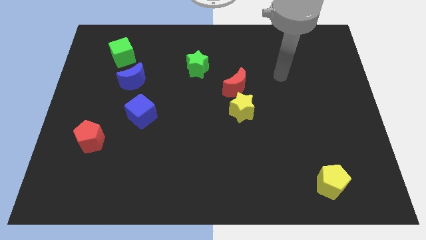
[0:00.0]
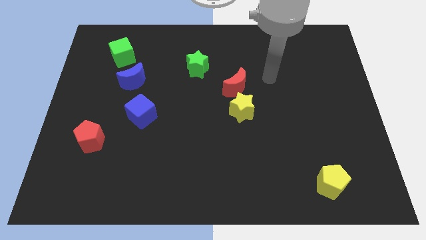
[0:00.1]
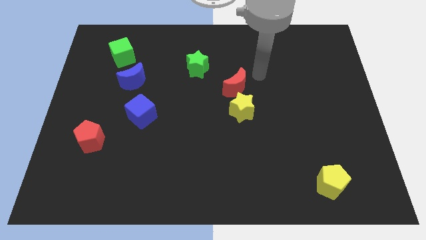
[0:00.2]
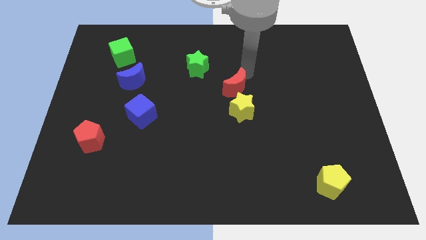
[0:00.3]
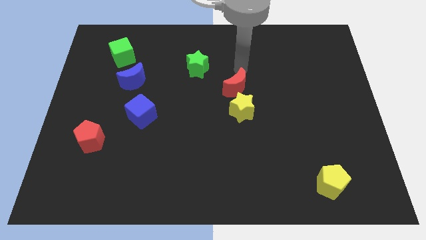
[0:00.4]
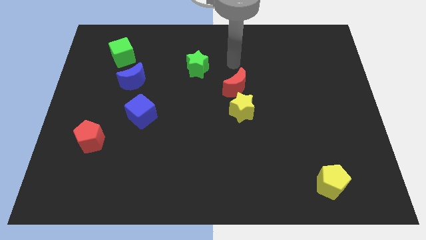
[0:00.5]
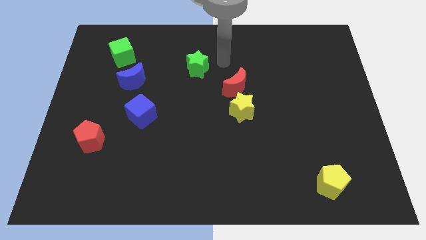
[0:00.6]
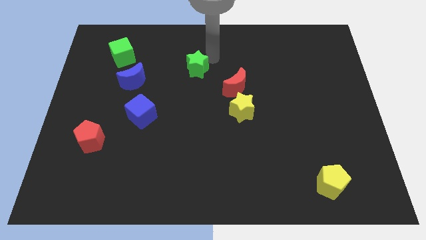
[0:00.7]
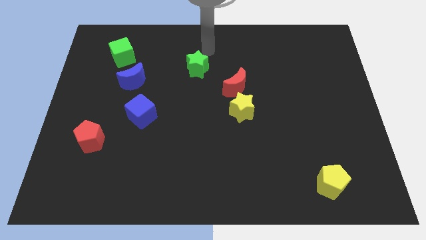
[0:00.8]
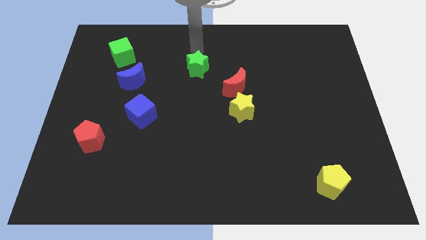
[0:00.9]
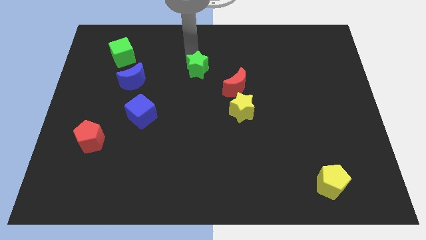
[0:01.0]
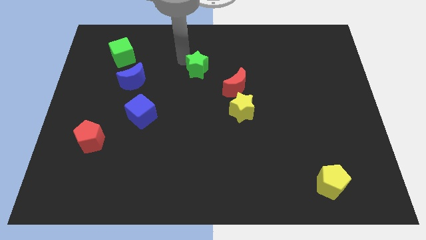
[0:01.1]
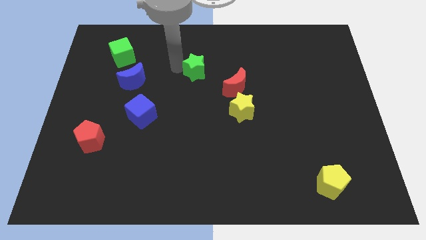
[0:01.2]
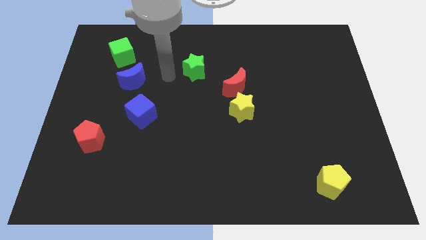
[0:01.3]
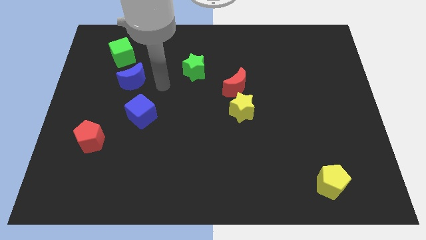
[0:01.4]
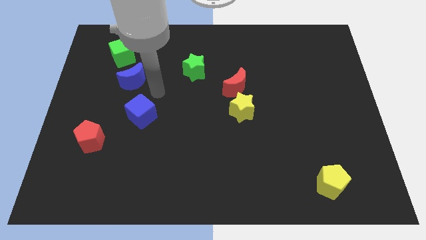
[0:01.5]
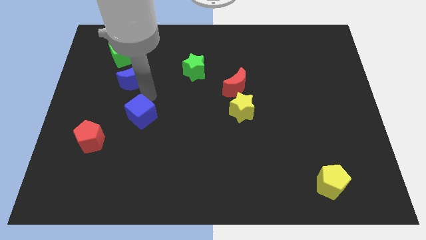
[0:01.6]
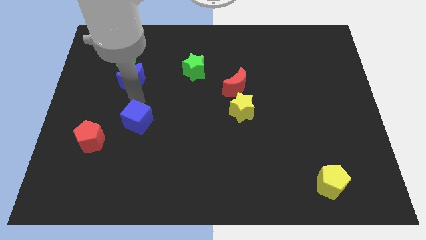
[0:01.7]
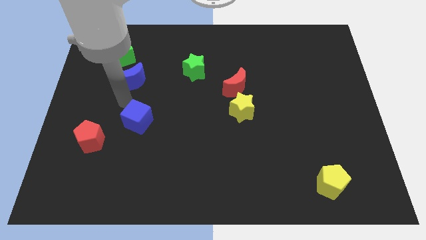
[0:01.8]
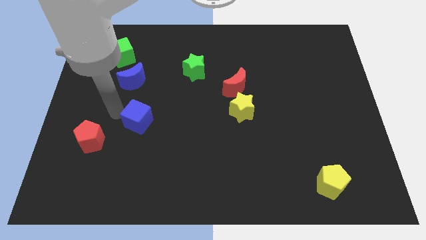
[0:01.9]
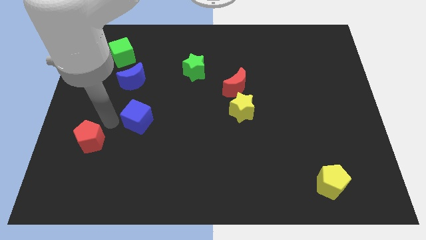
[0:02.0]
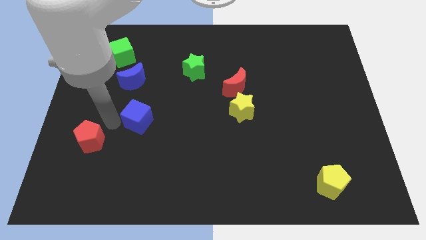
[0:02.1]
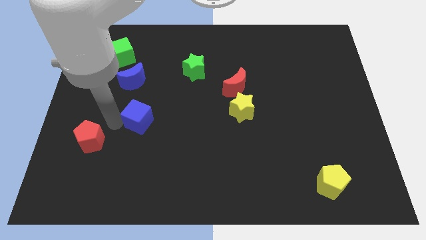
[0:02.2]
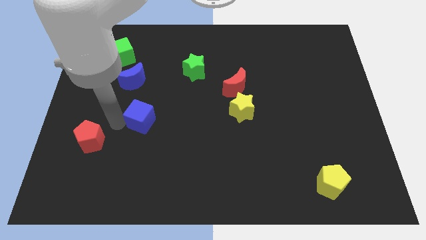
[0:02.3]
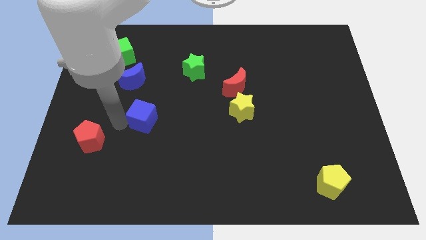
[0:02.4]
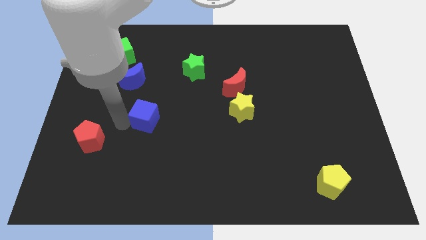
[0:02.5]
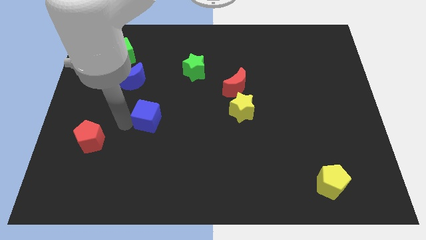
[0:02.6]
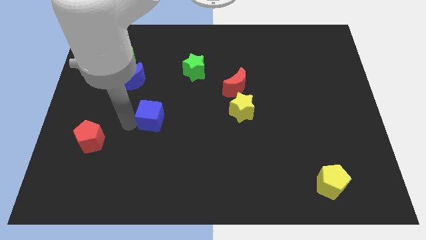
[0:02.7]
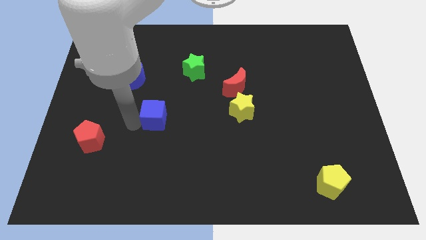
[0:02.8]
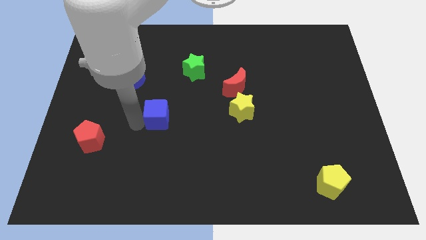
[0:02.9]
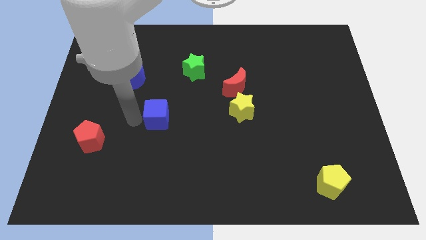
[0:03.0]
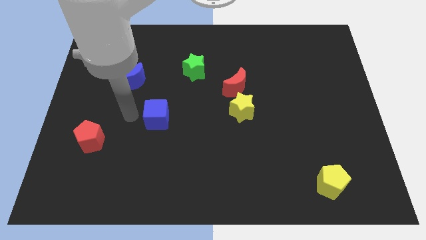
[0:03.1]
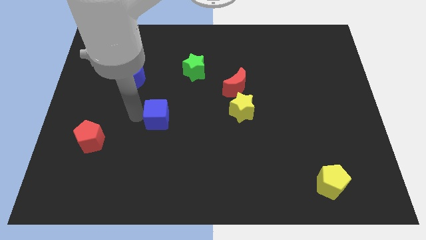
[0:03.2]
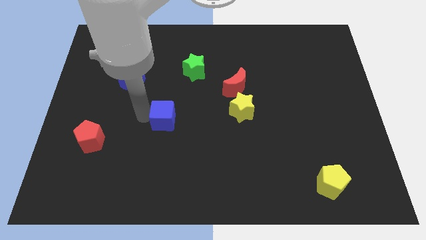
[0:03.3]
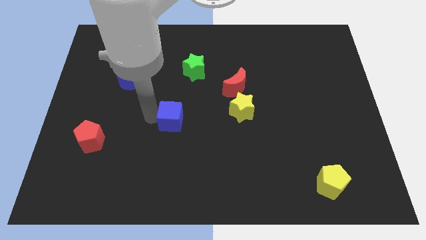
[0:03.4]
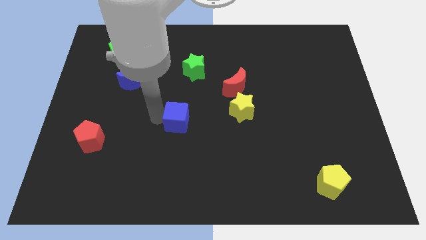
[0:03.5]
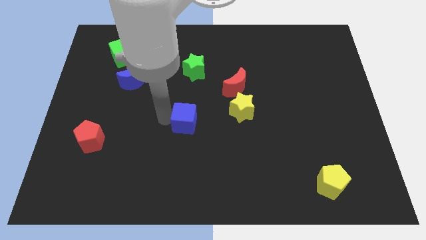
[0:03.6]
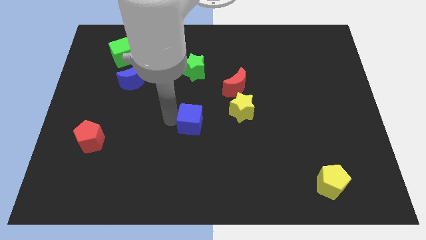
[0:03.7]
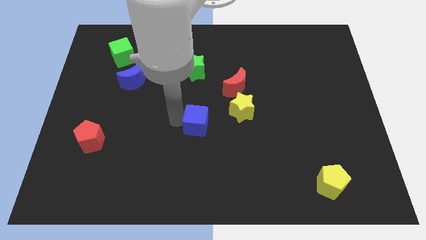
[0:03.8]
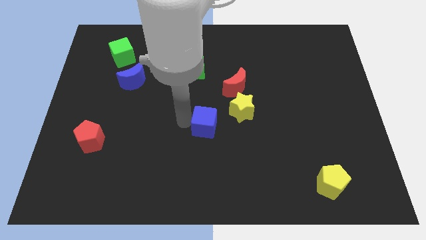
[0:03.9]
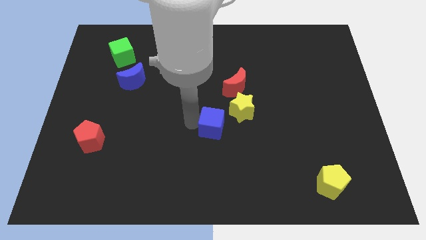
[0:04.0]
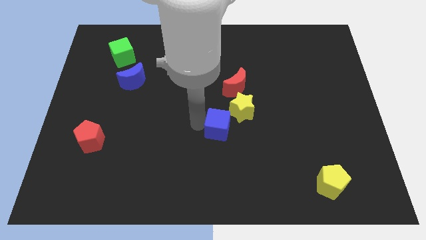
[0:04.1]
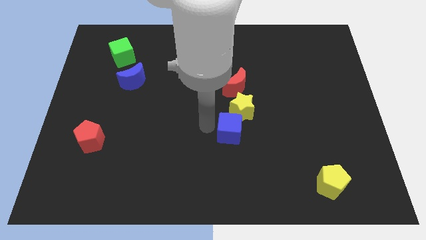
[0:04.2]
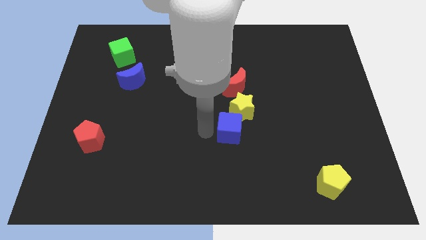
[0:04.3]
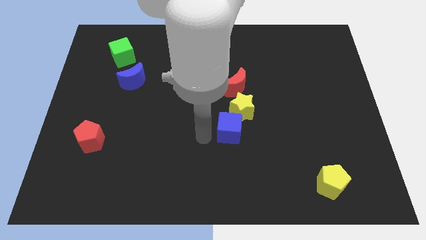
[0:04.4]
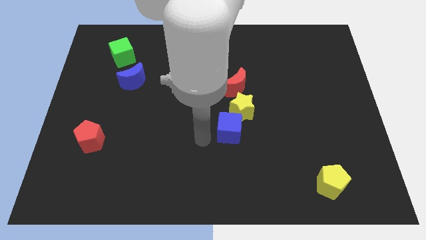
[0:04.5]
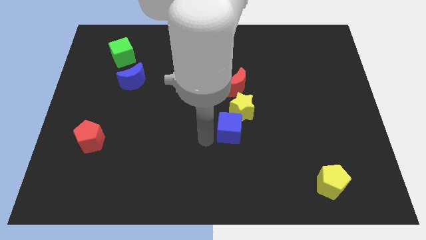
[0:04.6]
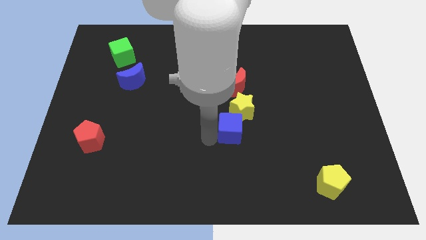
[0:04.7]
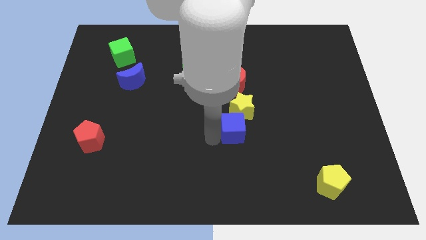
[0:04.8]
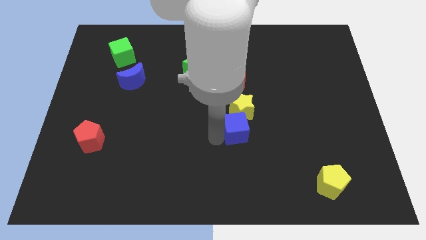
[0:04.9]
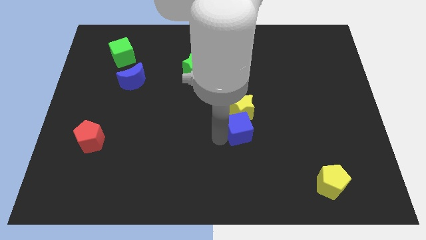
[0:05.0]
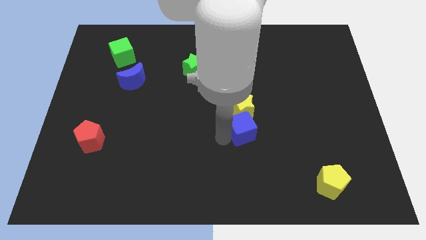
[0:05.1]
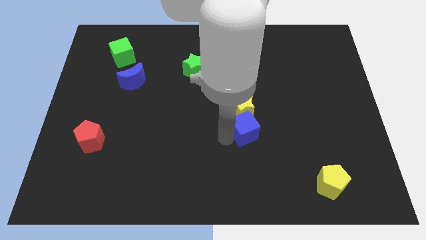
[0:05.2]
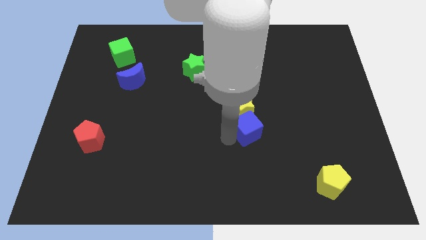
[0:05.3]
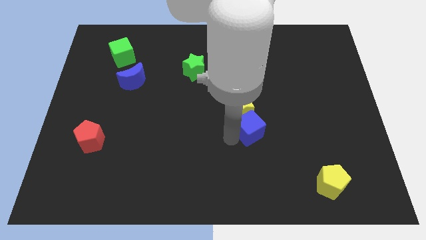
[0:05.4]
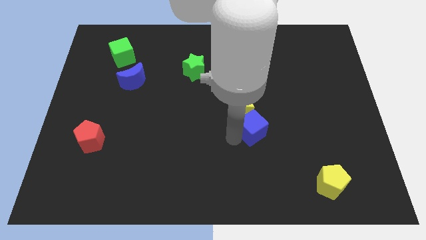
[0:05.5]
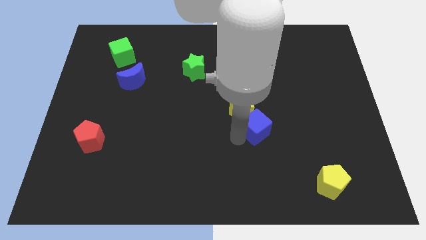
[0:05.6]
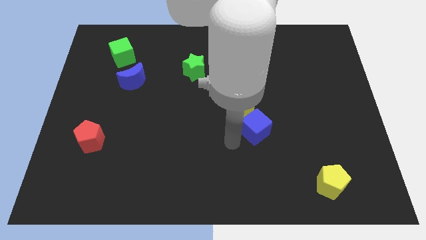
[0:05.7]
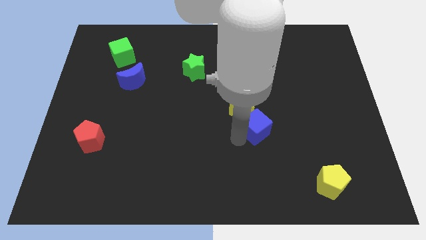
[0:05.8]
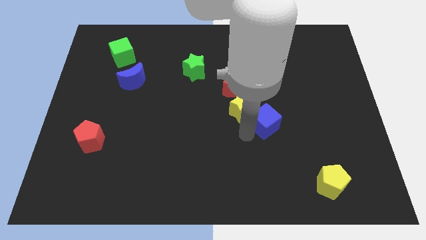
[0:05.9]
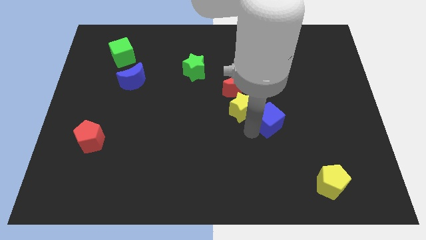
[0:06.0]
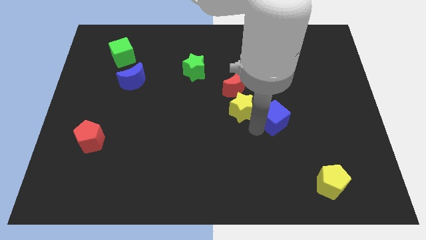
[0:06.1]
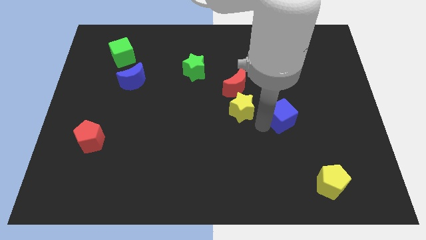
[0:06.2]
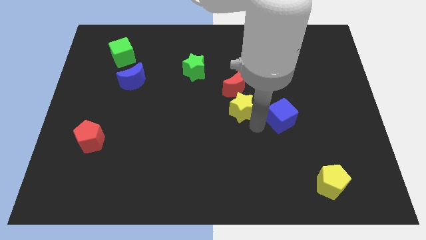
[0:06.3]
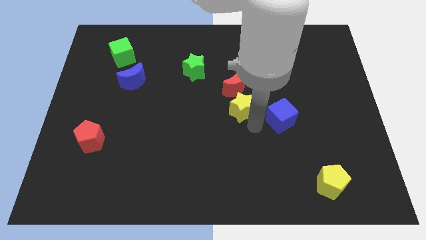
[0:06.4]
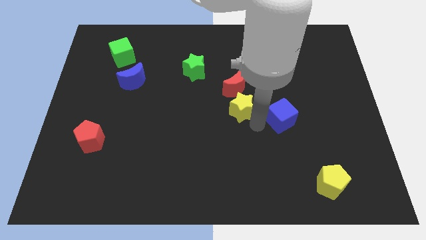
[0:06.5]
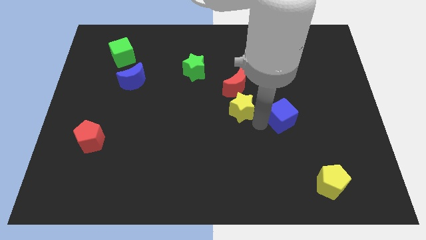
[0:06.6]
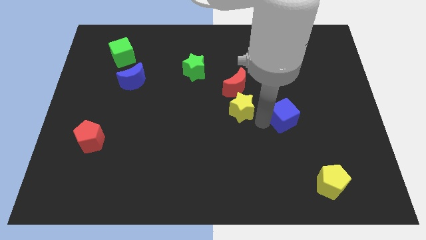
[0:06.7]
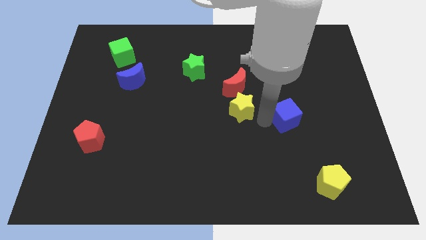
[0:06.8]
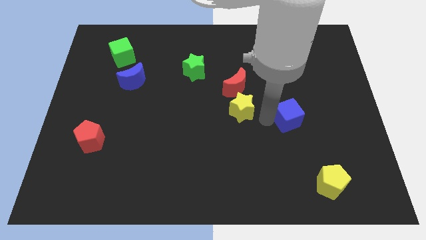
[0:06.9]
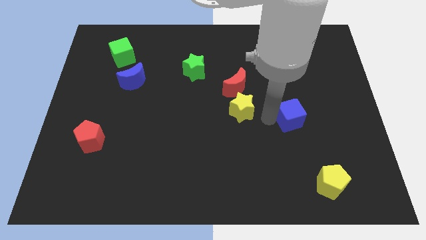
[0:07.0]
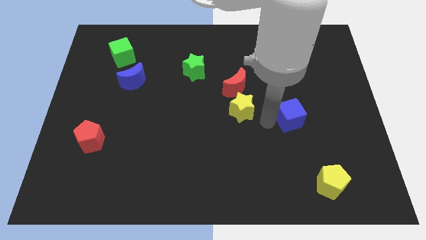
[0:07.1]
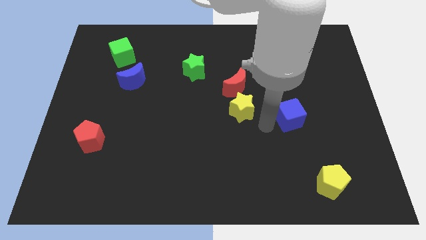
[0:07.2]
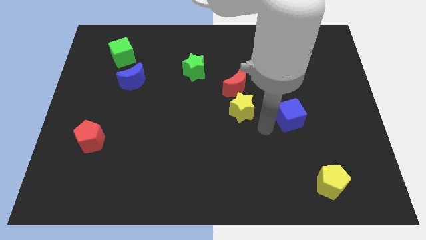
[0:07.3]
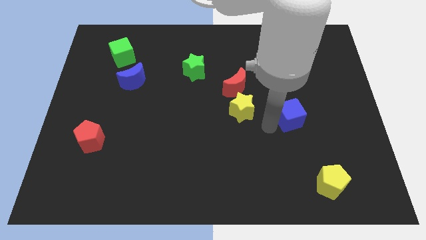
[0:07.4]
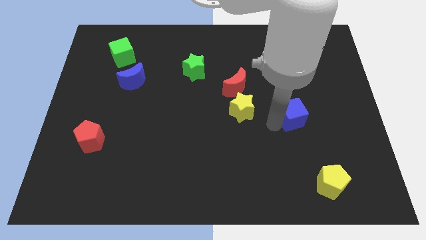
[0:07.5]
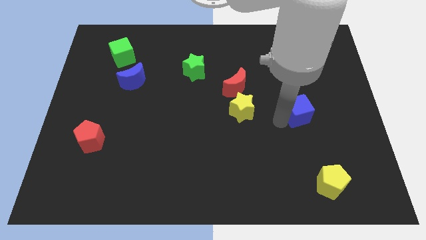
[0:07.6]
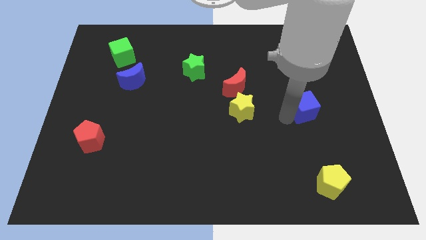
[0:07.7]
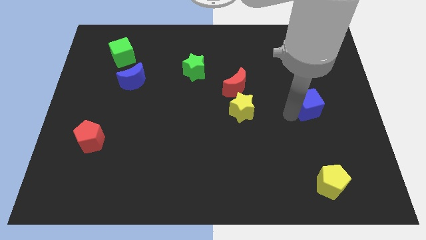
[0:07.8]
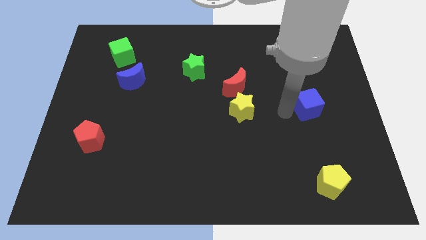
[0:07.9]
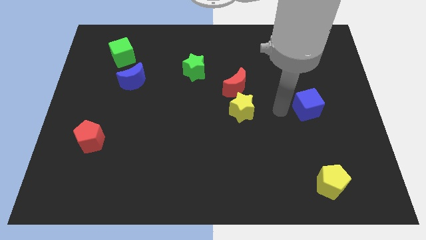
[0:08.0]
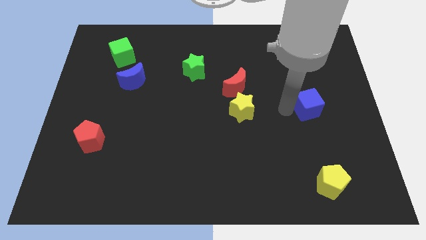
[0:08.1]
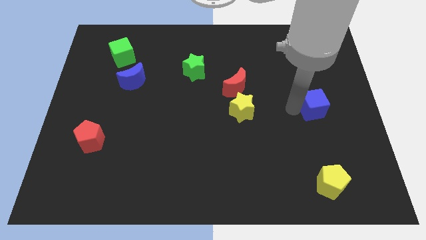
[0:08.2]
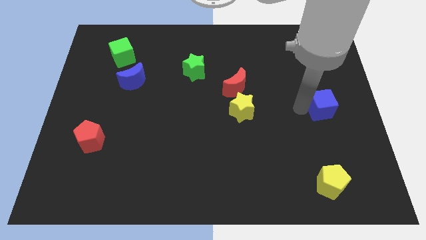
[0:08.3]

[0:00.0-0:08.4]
push the blue cube to the center right

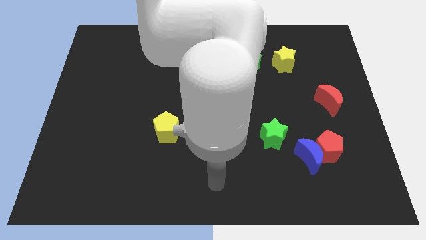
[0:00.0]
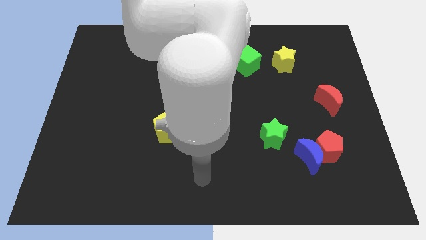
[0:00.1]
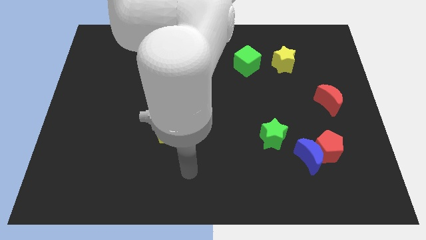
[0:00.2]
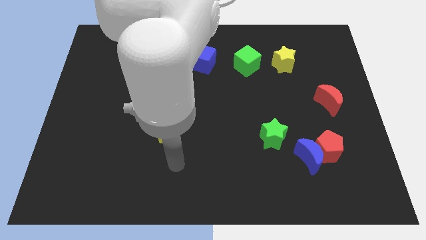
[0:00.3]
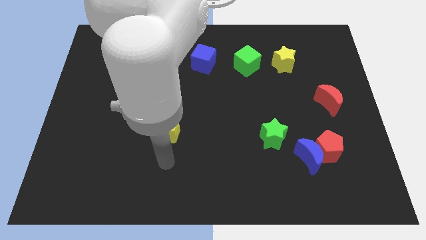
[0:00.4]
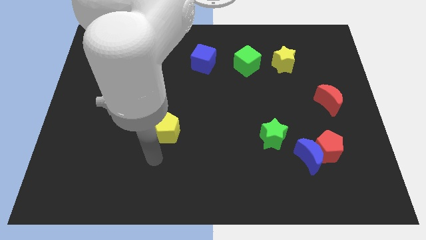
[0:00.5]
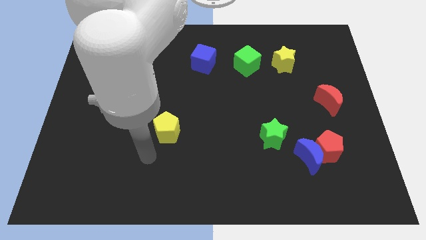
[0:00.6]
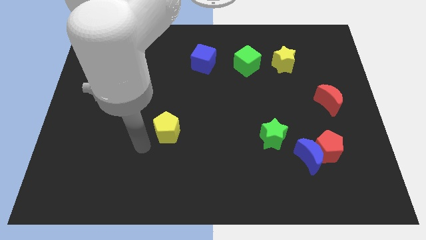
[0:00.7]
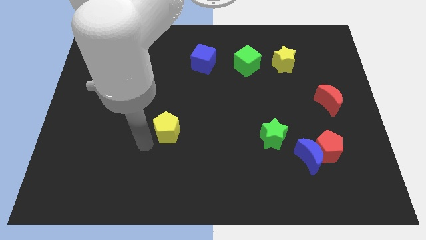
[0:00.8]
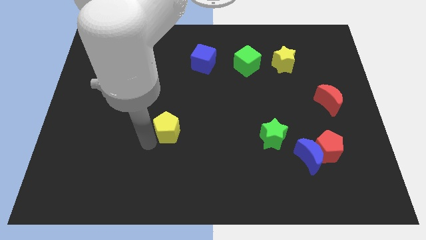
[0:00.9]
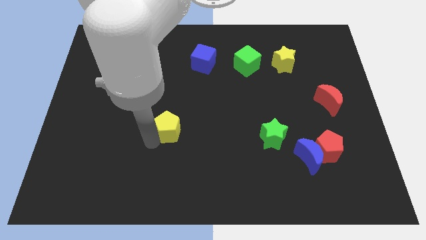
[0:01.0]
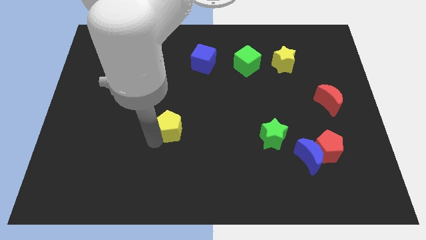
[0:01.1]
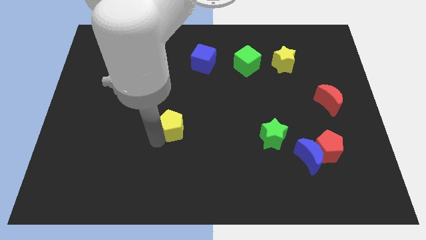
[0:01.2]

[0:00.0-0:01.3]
push the yellow pentagon to the center of the board
